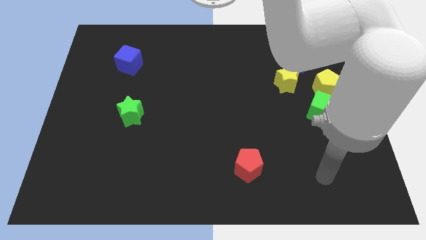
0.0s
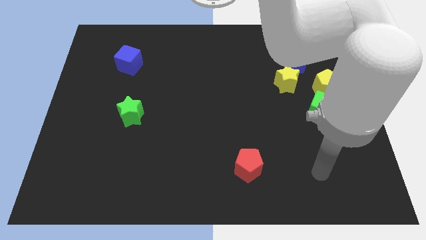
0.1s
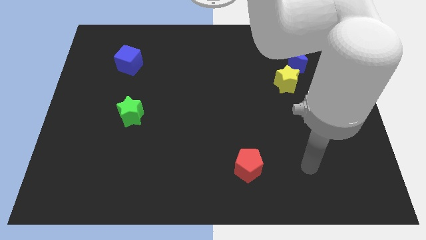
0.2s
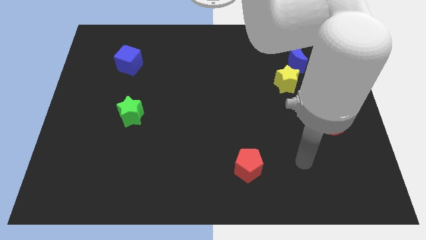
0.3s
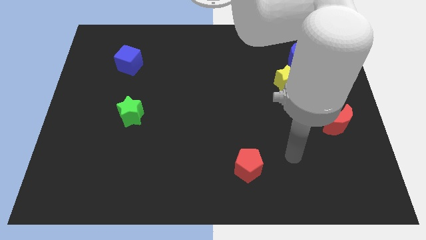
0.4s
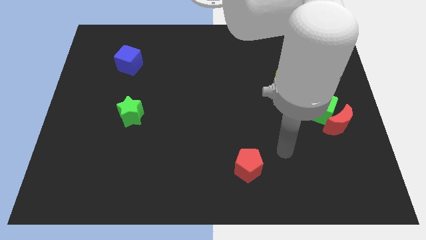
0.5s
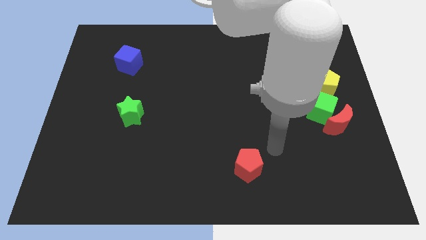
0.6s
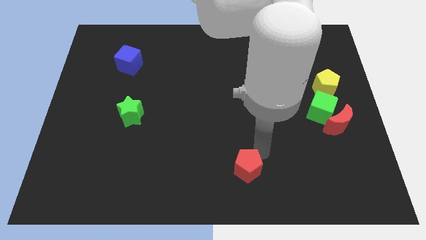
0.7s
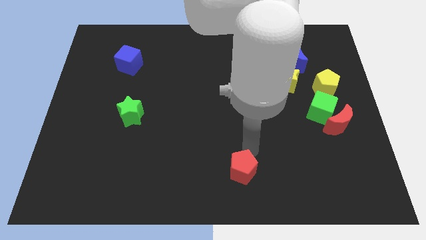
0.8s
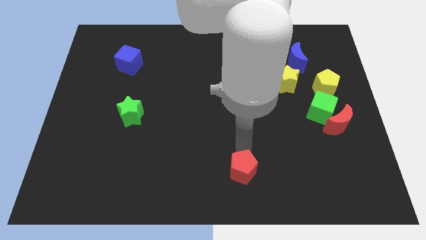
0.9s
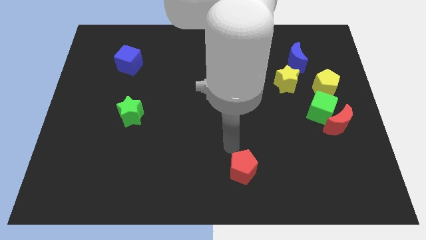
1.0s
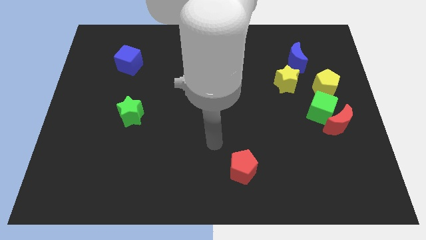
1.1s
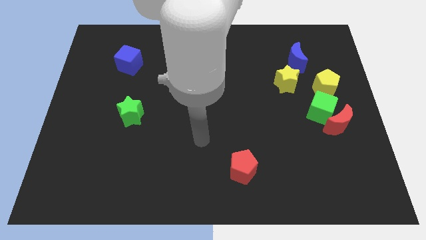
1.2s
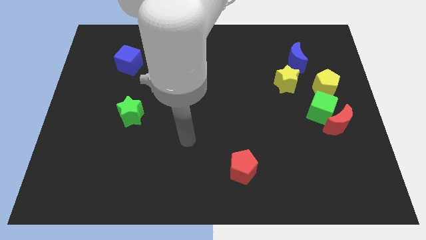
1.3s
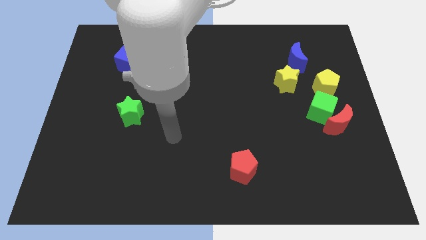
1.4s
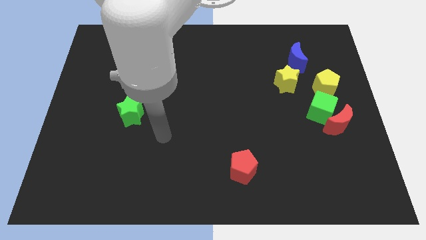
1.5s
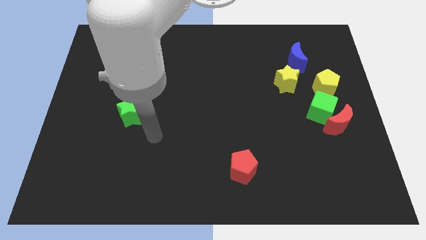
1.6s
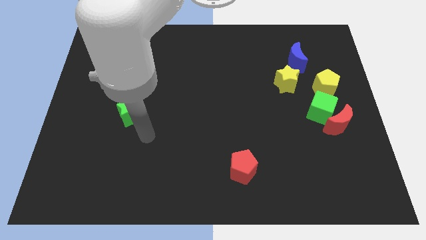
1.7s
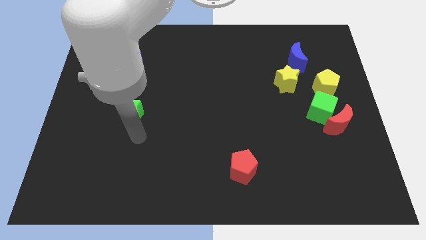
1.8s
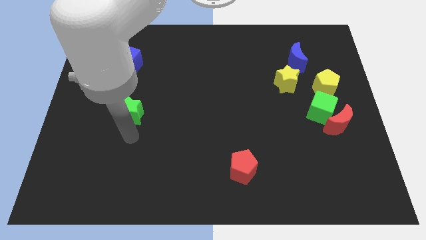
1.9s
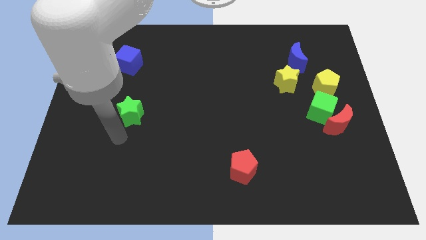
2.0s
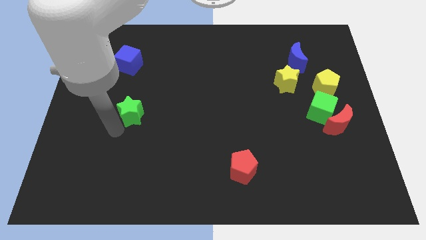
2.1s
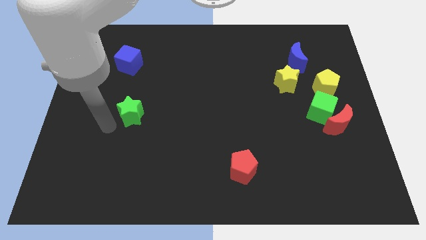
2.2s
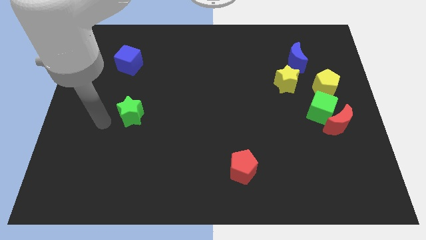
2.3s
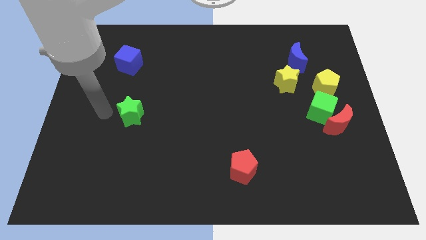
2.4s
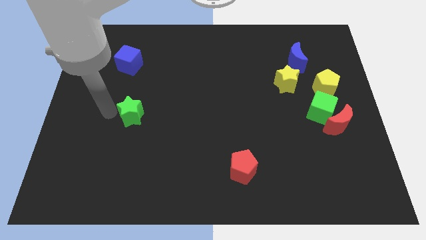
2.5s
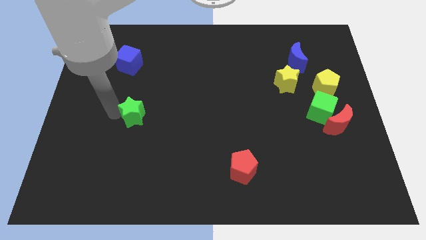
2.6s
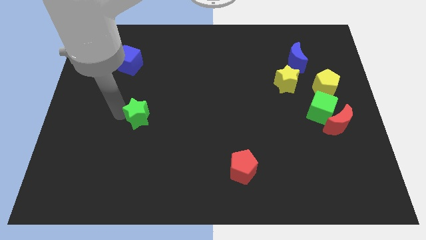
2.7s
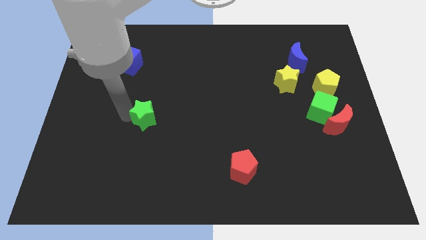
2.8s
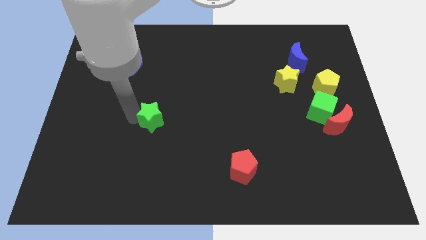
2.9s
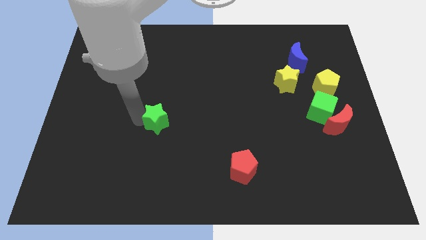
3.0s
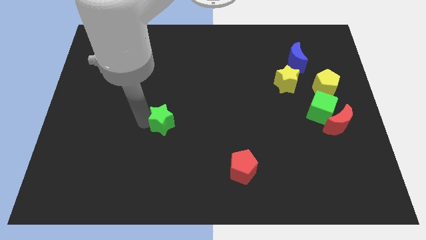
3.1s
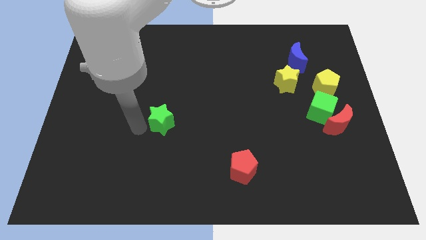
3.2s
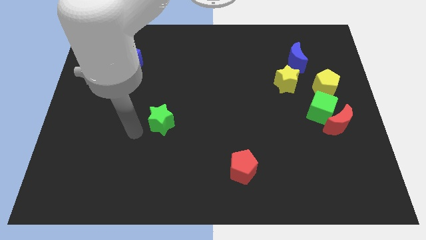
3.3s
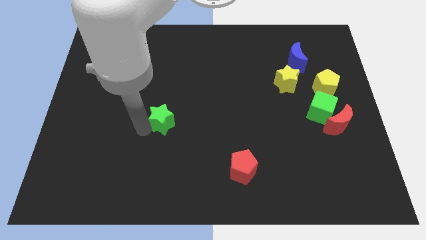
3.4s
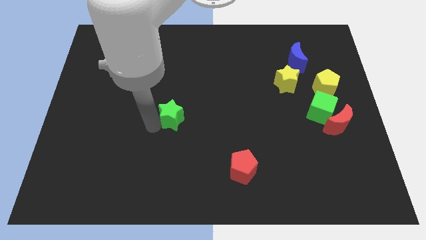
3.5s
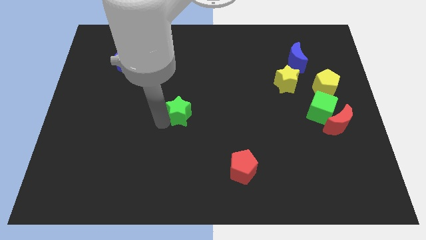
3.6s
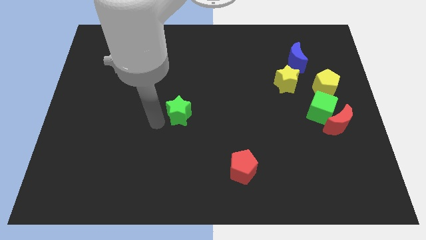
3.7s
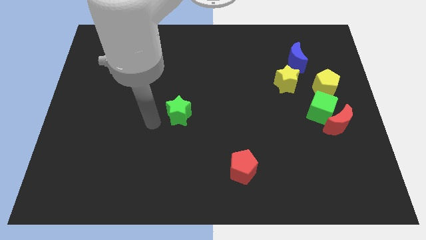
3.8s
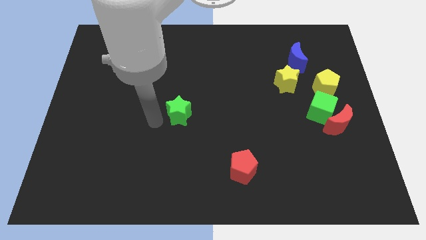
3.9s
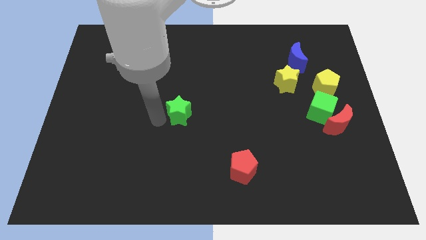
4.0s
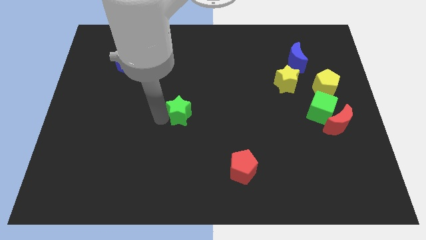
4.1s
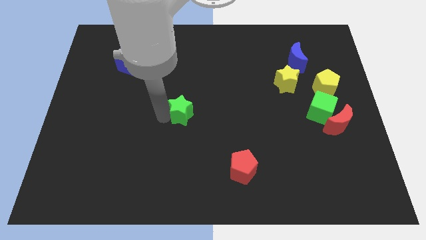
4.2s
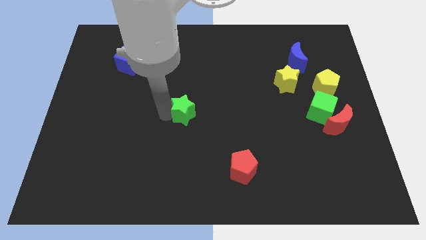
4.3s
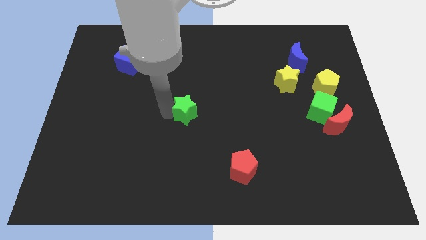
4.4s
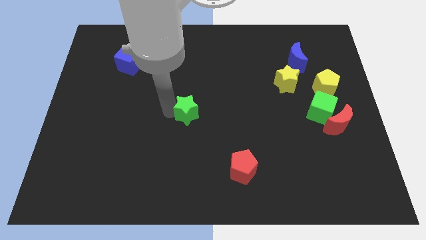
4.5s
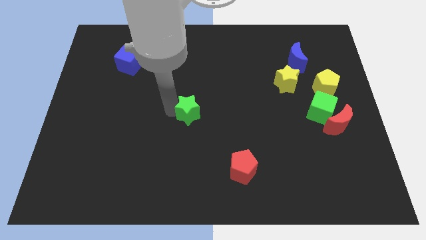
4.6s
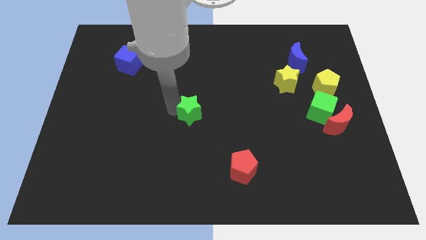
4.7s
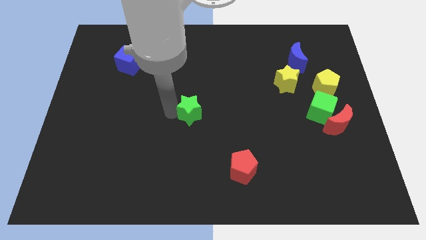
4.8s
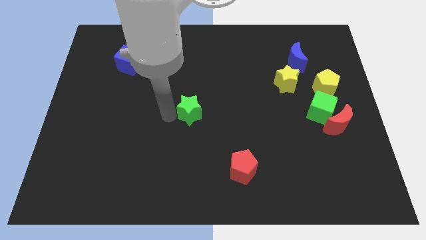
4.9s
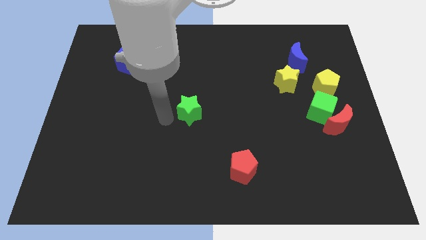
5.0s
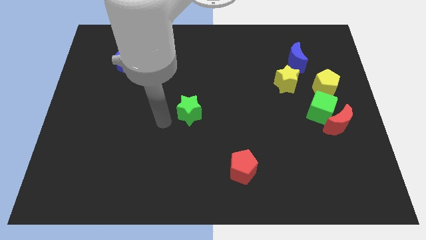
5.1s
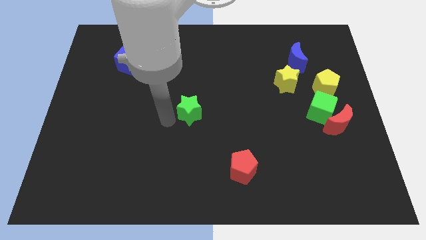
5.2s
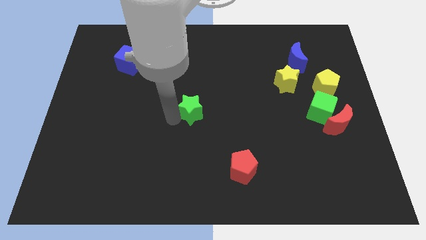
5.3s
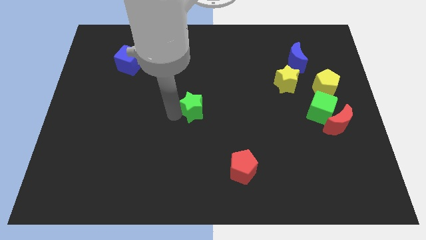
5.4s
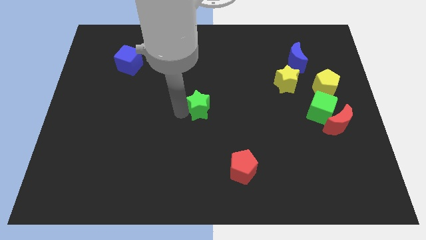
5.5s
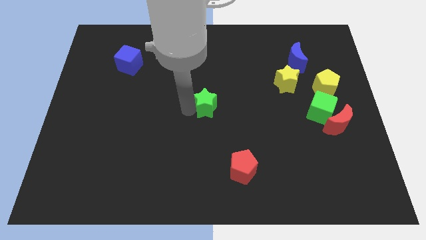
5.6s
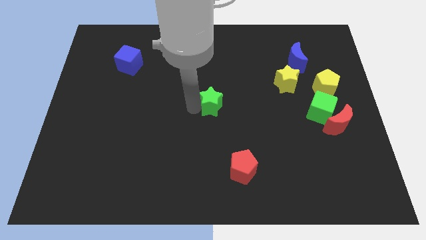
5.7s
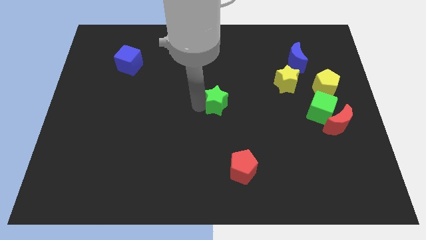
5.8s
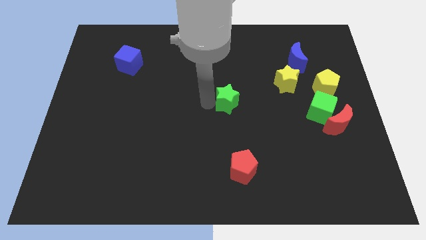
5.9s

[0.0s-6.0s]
slide the green star to the right

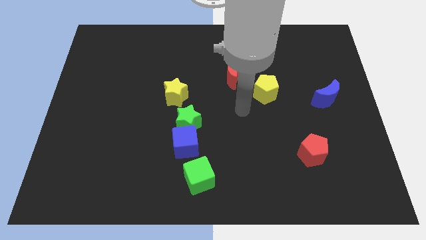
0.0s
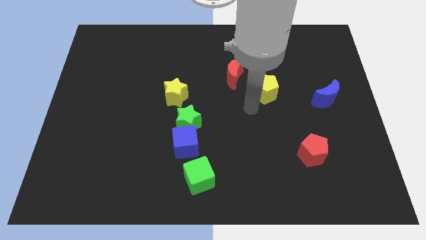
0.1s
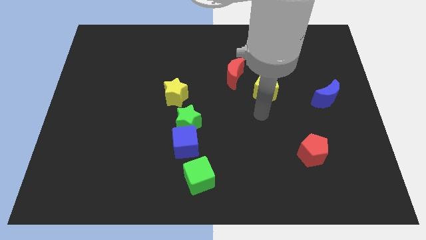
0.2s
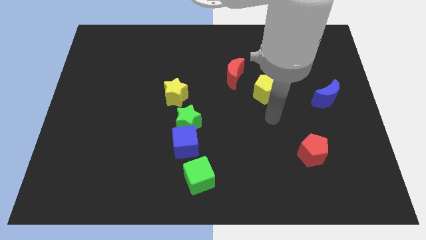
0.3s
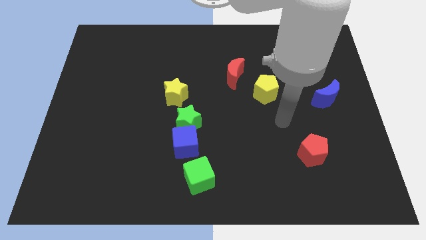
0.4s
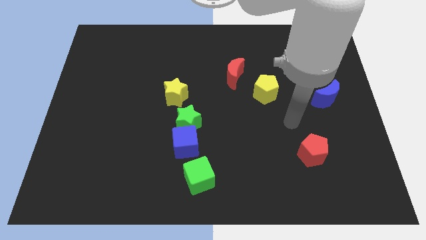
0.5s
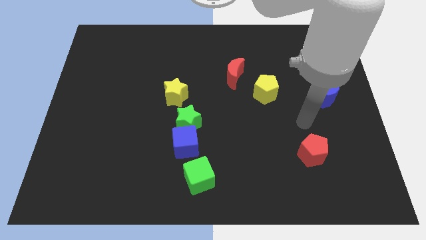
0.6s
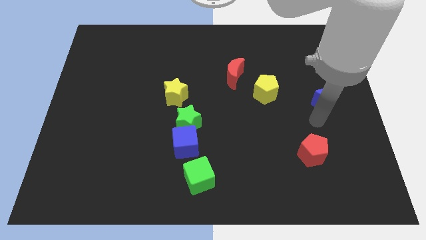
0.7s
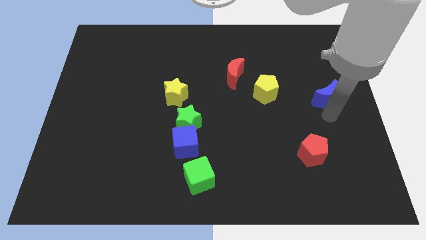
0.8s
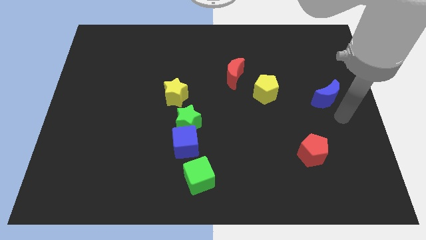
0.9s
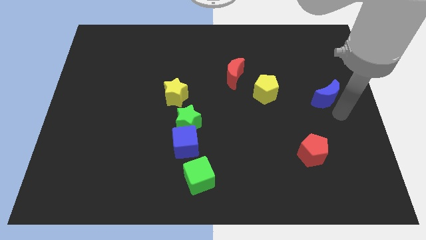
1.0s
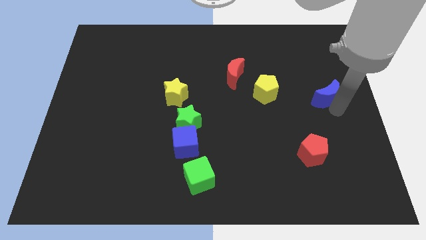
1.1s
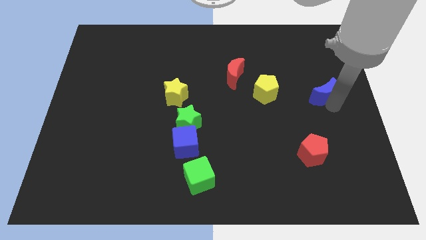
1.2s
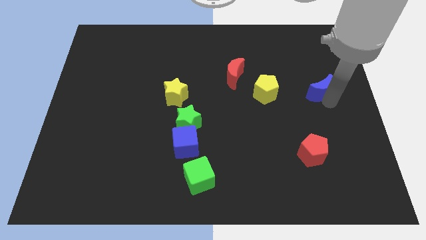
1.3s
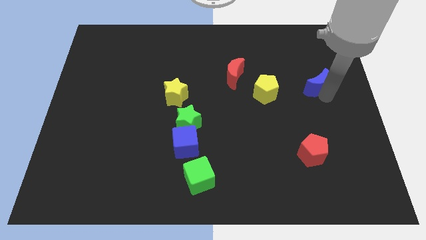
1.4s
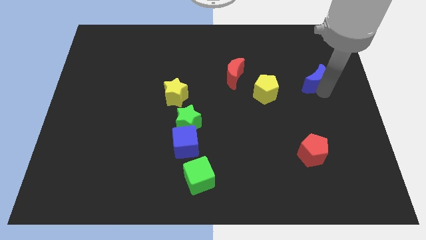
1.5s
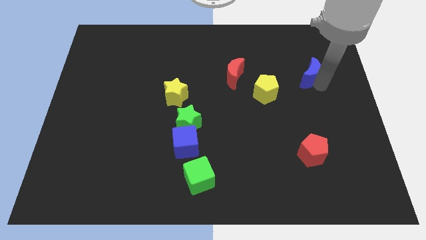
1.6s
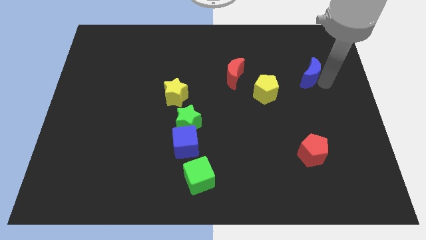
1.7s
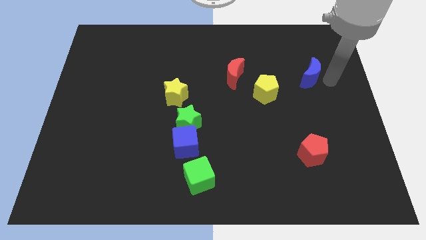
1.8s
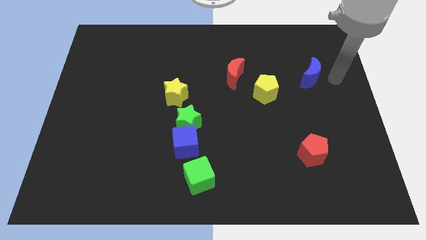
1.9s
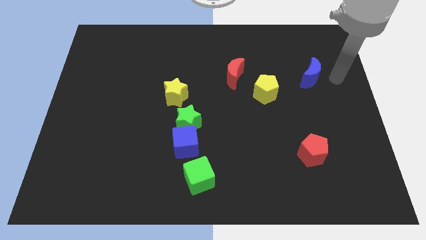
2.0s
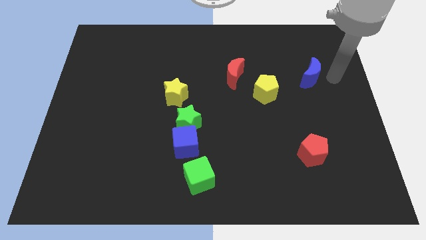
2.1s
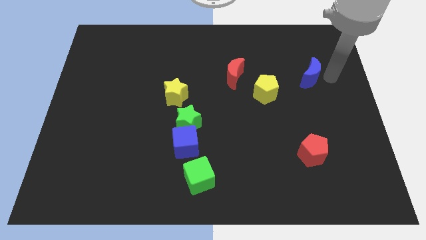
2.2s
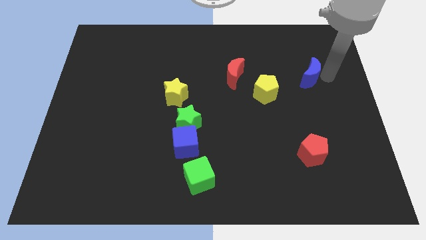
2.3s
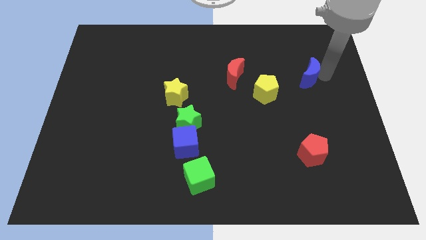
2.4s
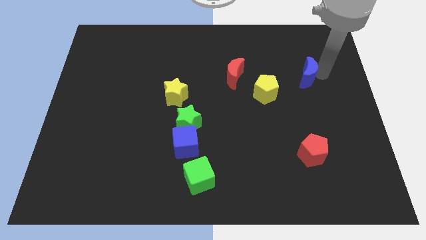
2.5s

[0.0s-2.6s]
push the blue moon upwards and to the left a little bit
